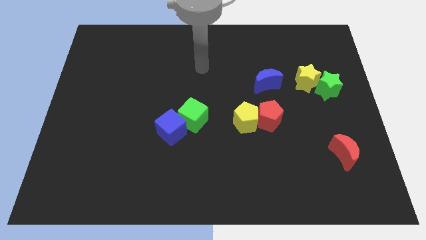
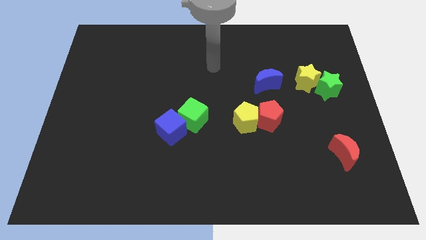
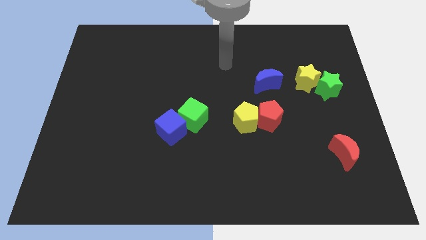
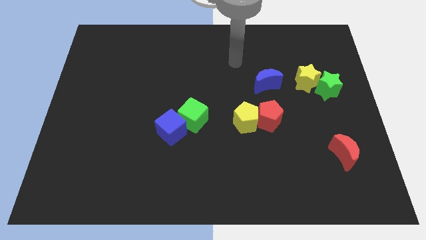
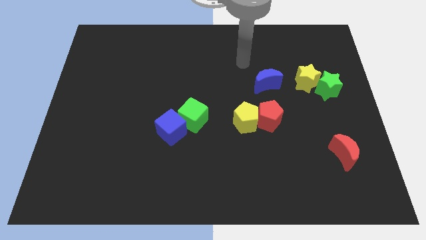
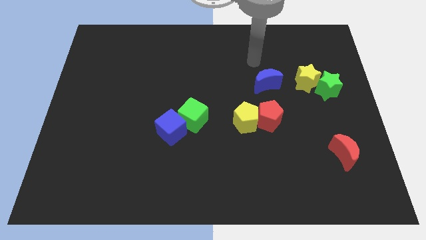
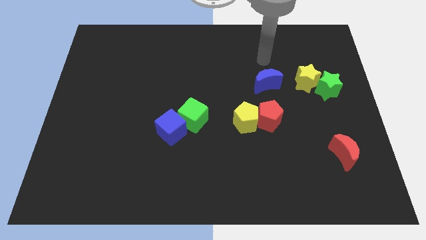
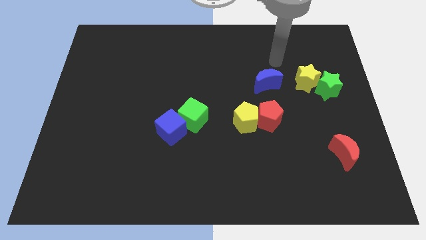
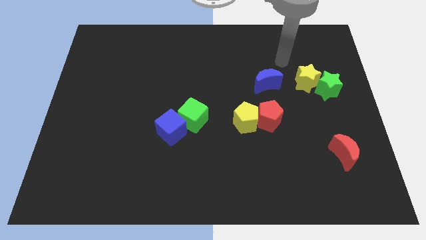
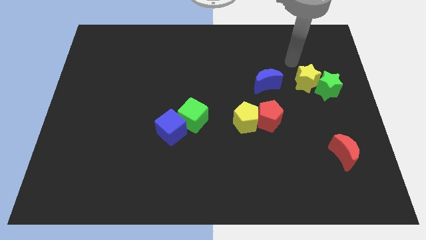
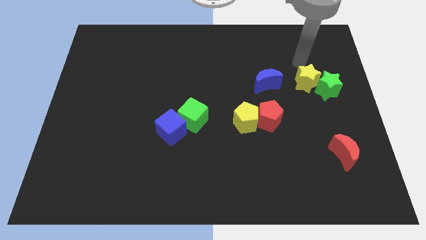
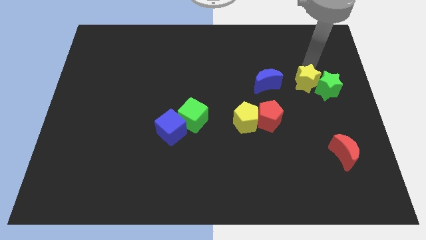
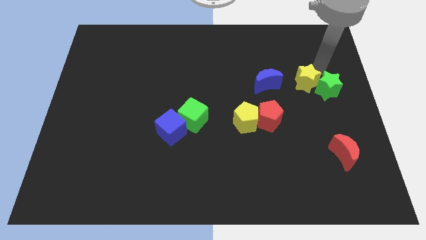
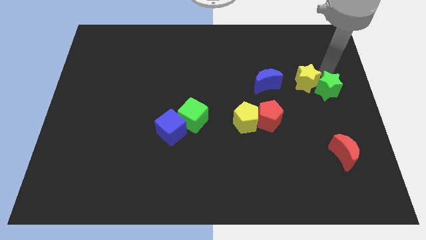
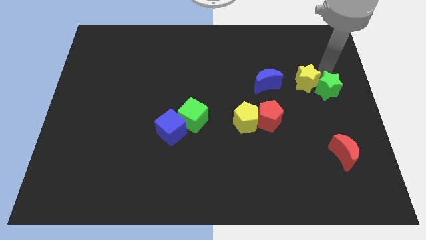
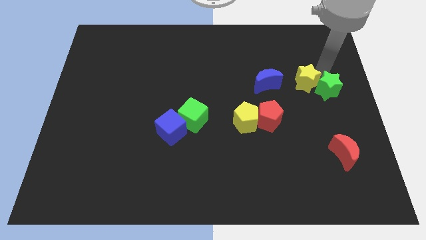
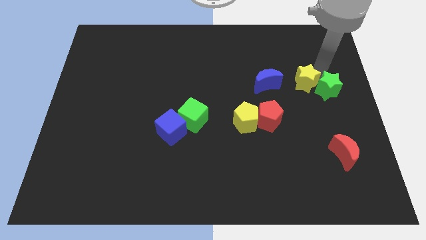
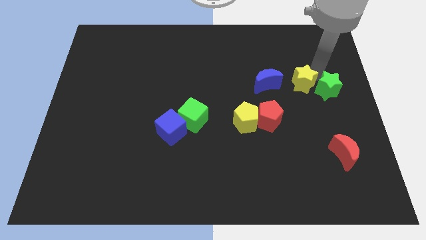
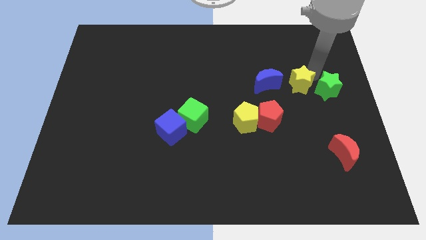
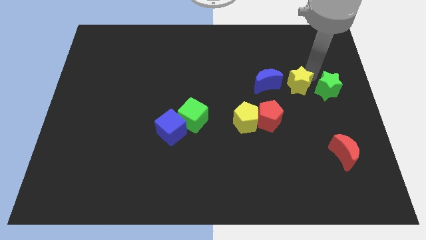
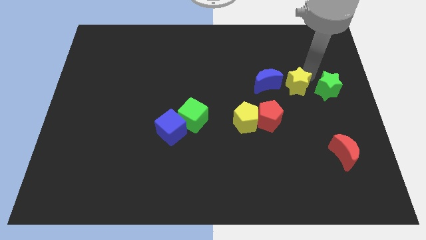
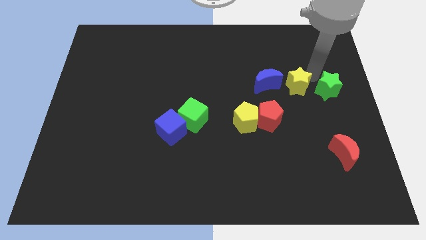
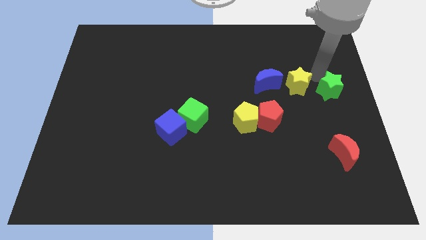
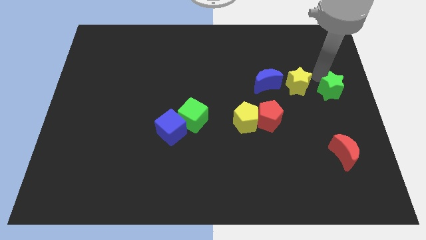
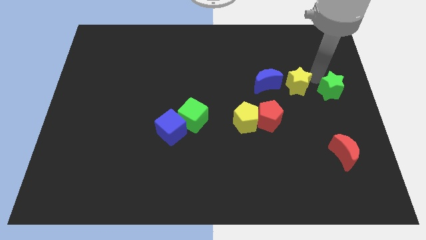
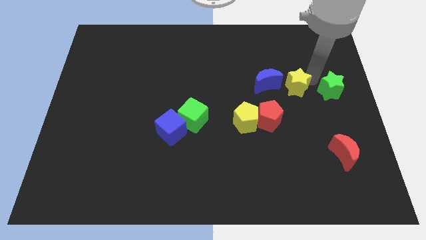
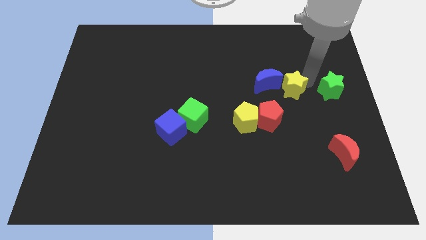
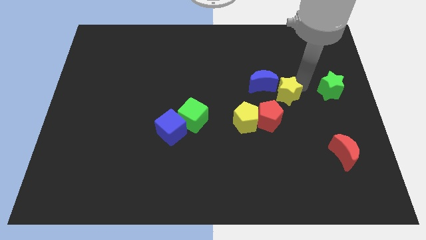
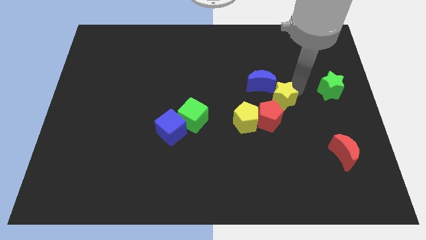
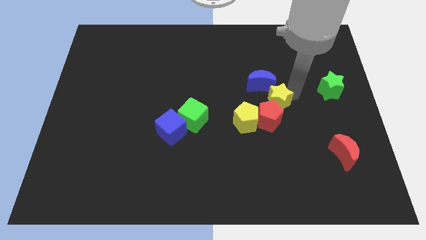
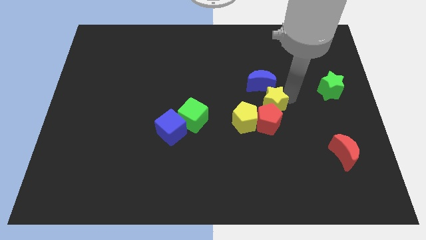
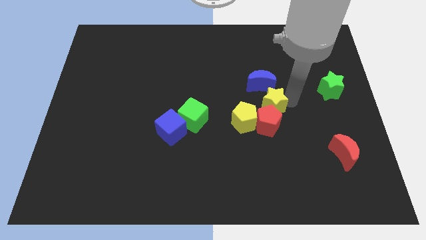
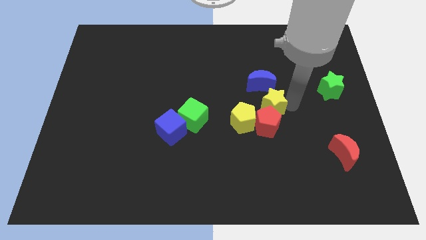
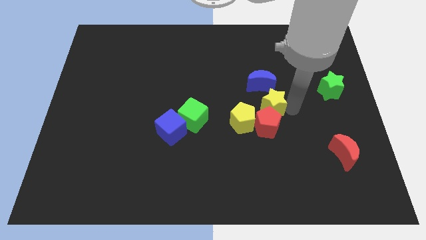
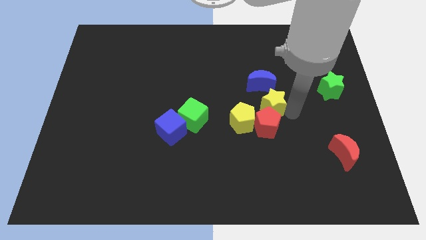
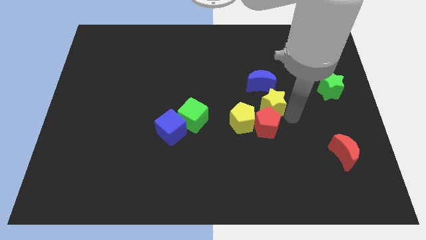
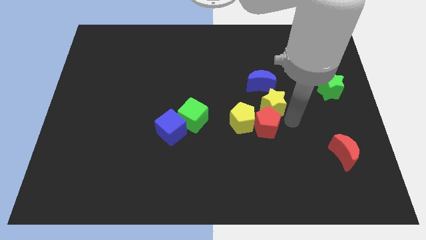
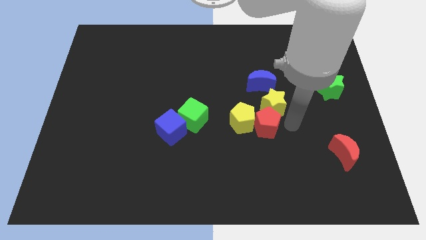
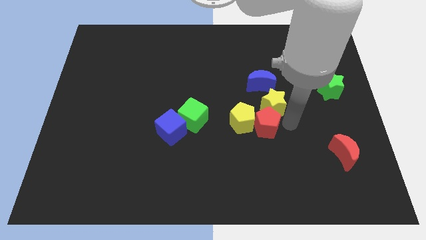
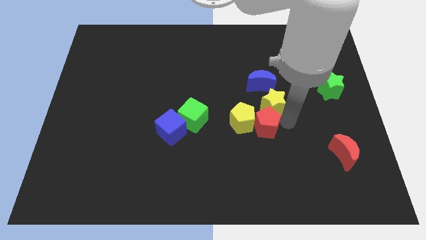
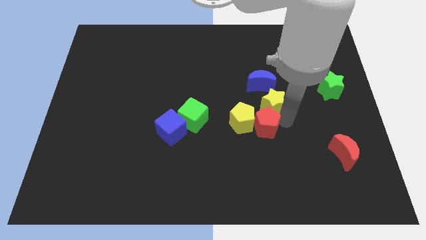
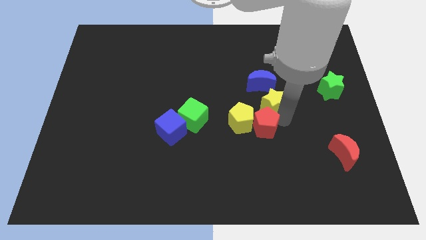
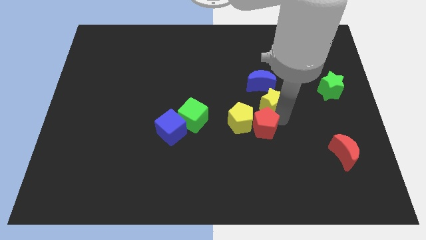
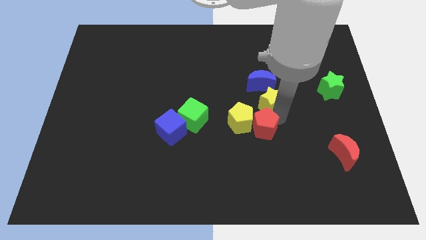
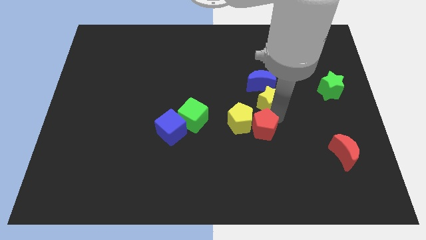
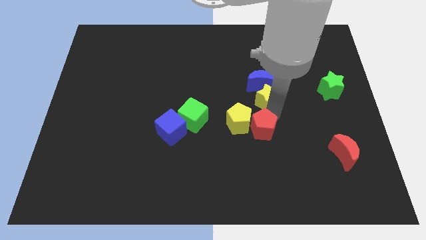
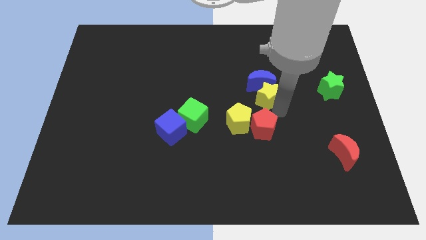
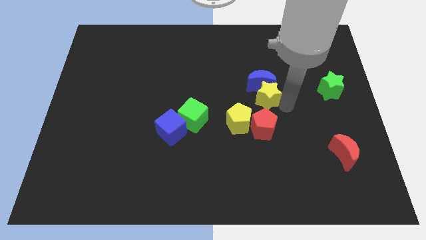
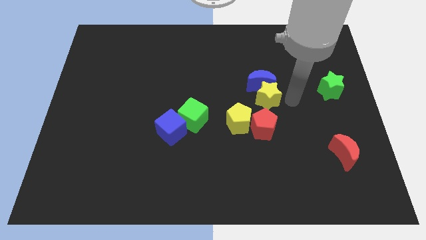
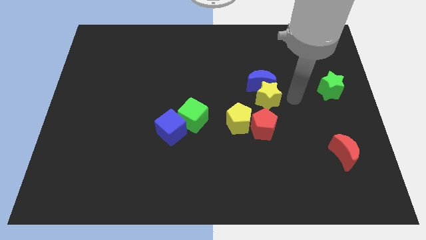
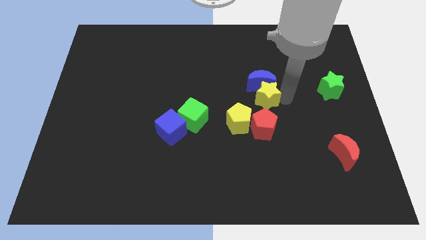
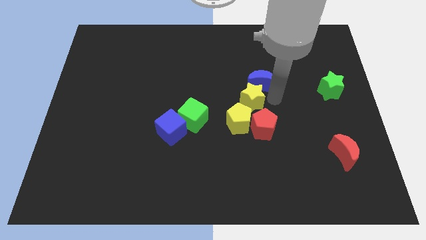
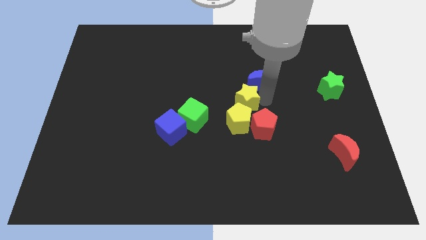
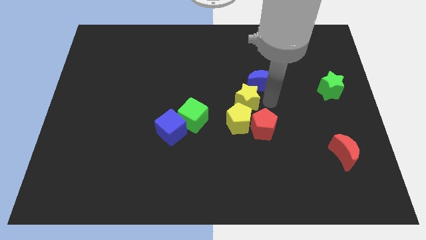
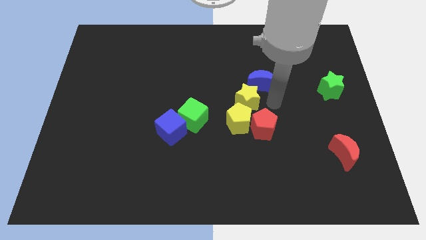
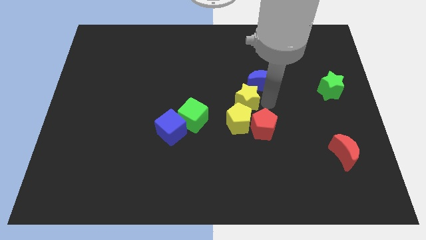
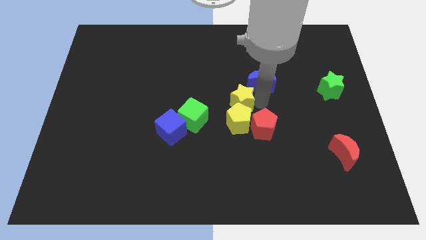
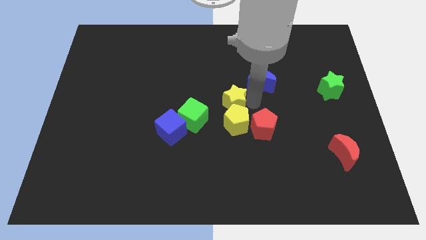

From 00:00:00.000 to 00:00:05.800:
move the yellow star to the top right of the green cube

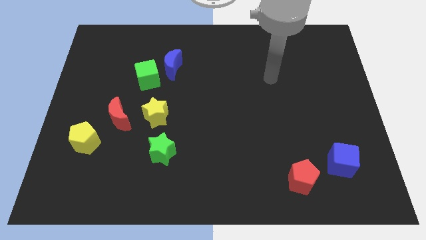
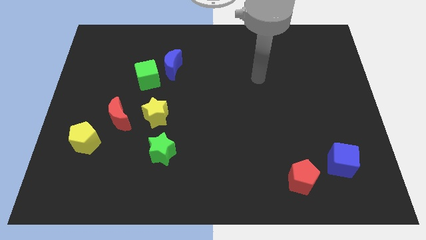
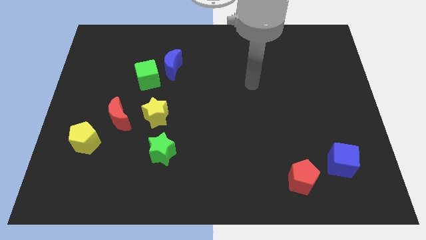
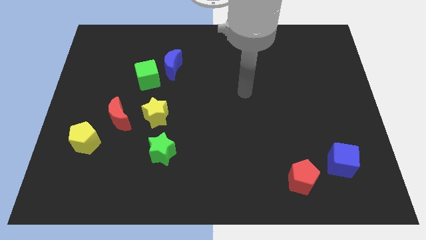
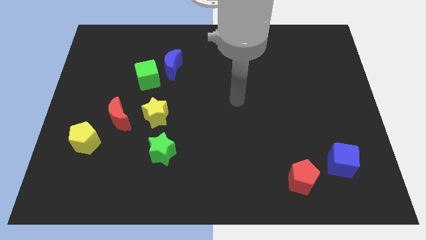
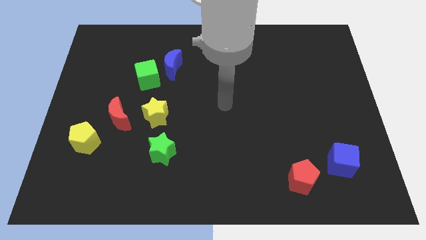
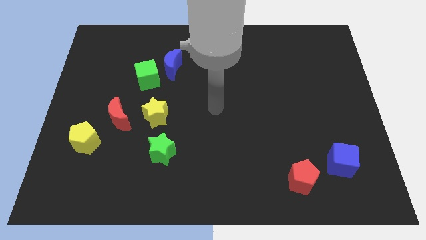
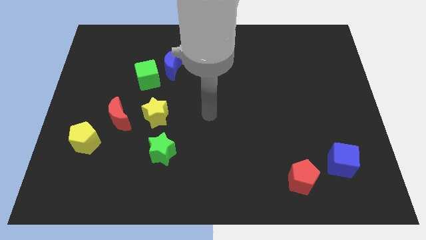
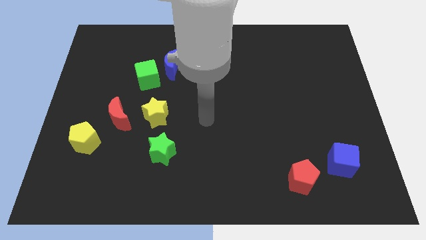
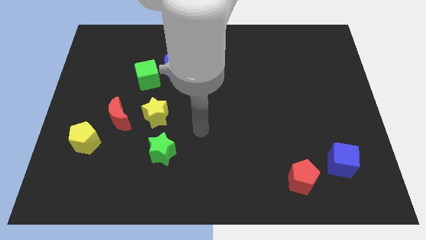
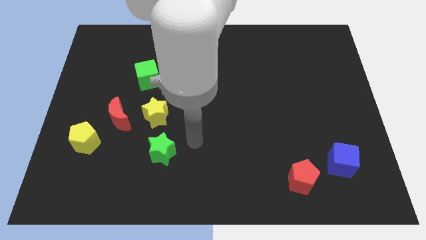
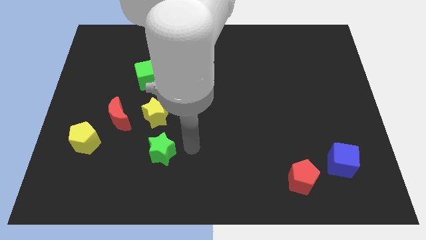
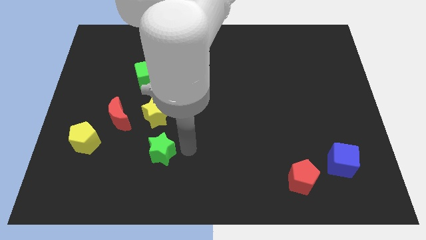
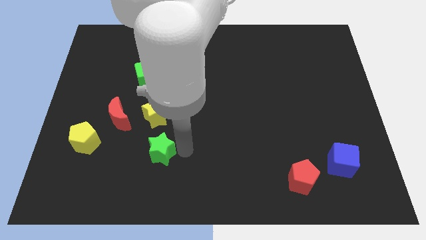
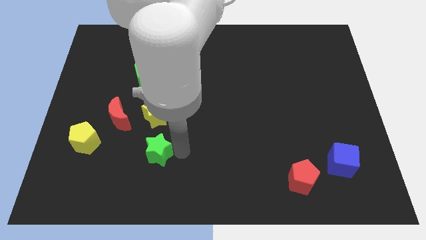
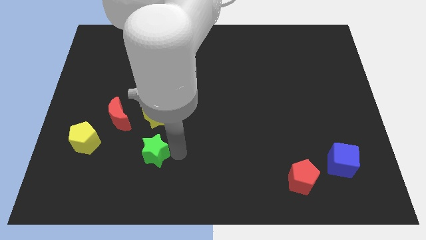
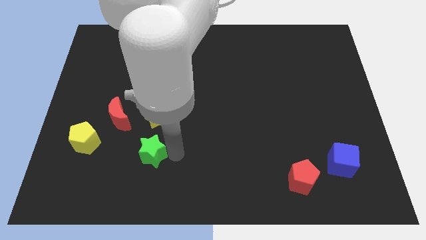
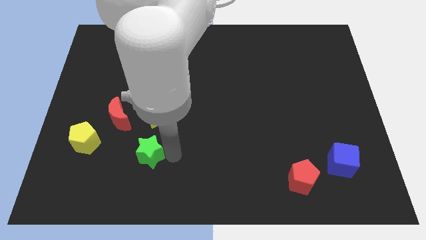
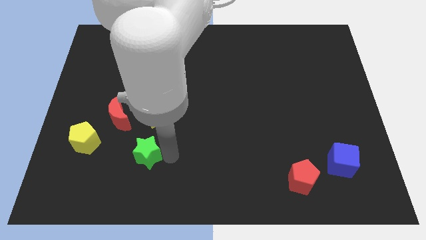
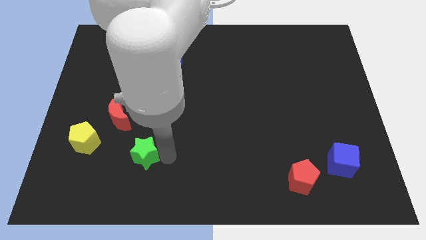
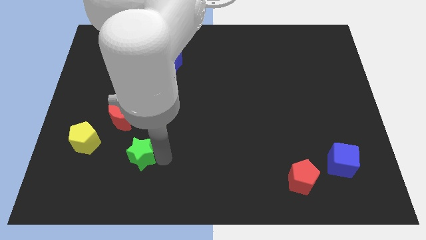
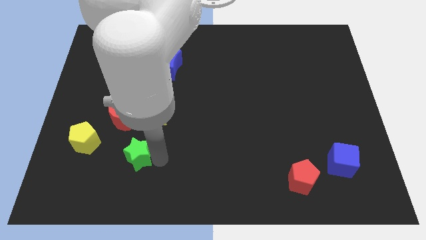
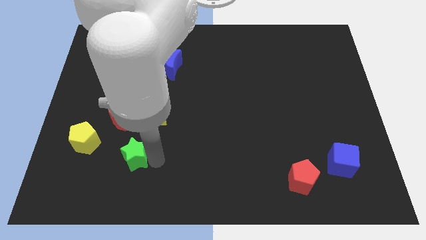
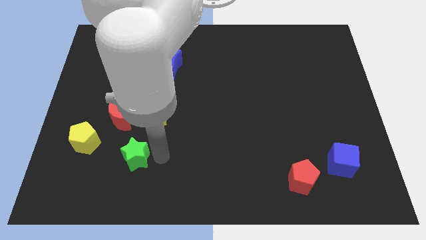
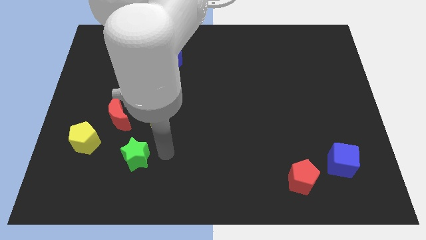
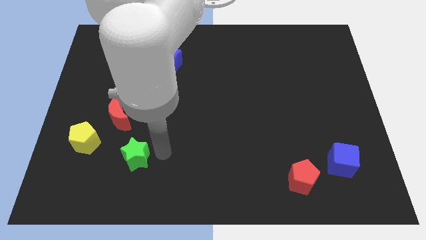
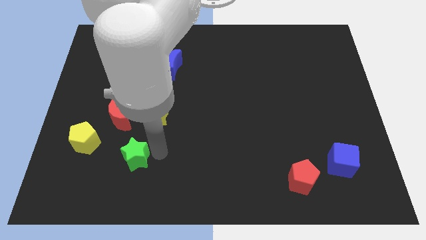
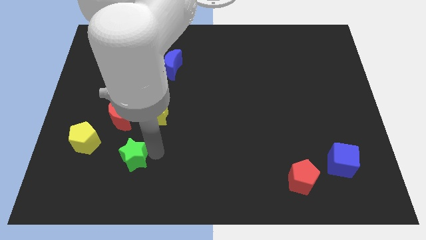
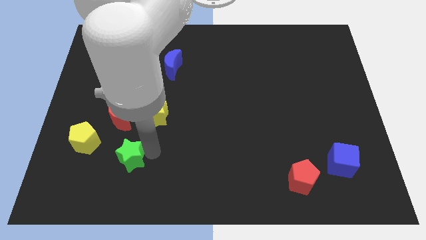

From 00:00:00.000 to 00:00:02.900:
put the green star to the bottom right of the yellow pentagon
